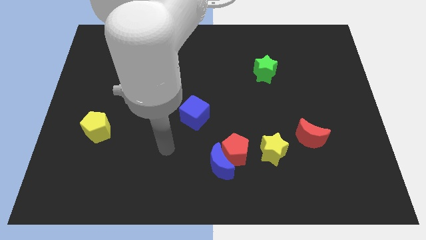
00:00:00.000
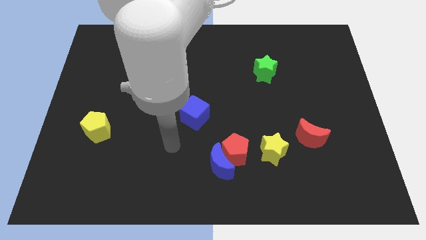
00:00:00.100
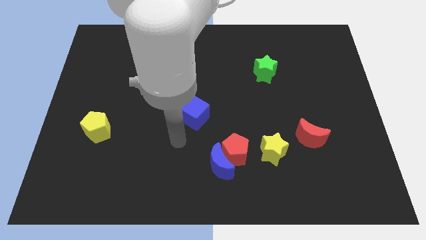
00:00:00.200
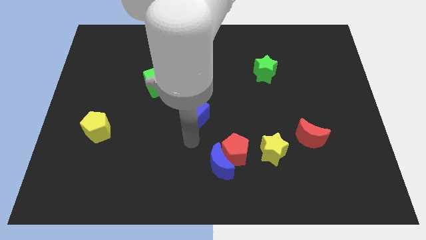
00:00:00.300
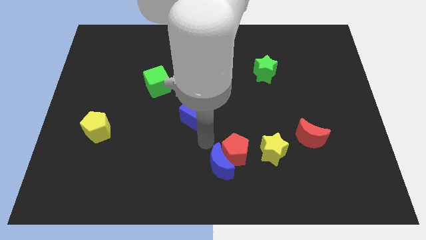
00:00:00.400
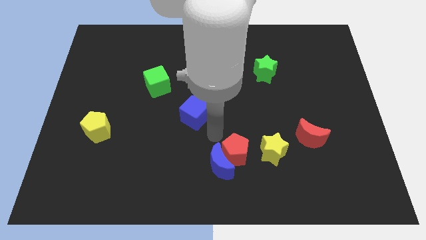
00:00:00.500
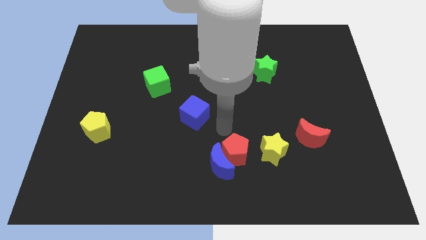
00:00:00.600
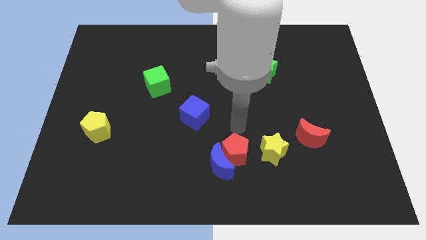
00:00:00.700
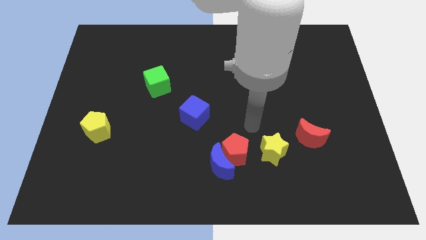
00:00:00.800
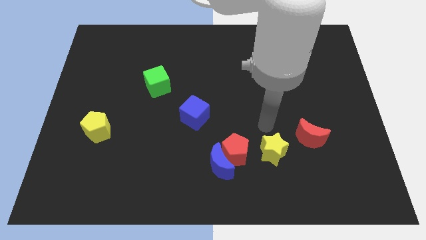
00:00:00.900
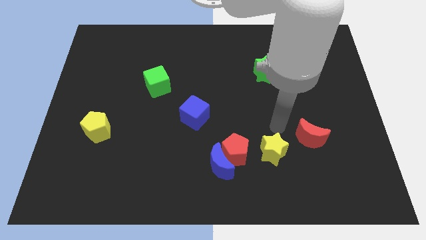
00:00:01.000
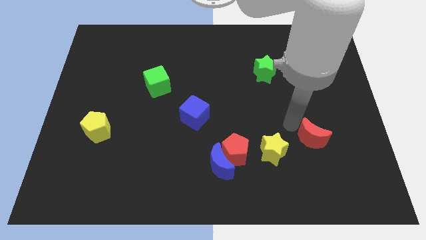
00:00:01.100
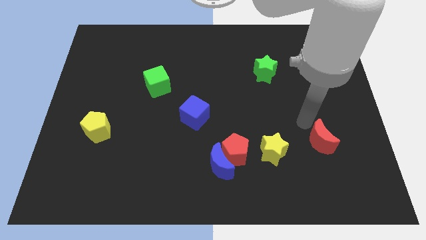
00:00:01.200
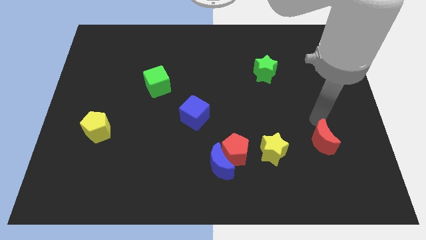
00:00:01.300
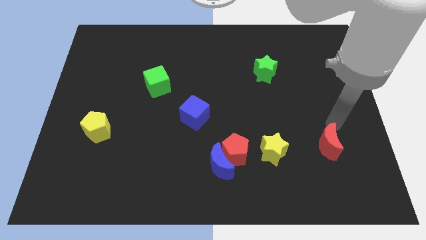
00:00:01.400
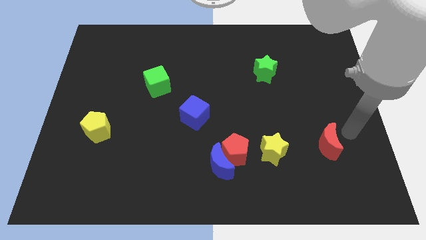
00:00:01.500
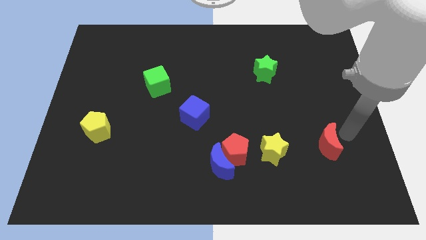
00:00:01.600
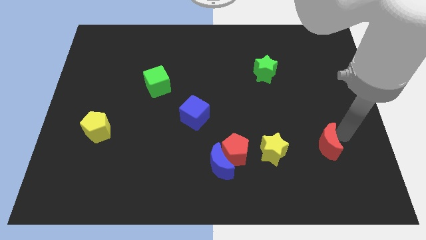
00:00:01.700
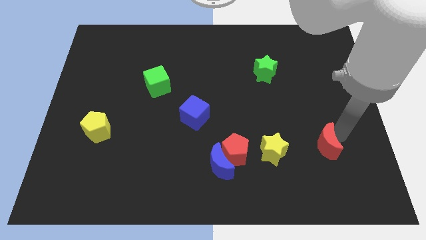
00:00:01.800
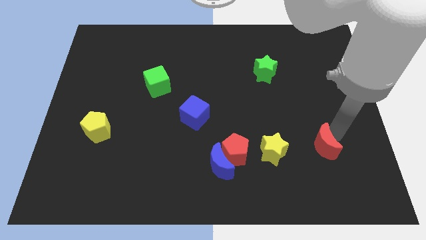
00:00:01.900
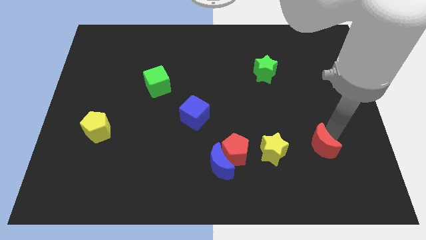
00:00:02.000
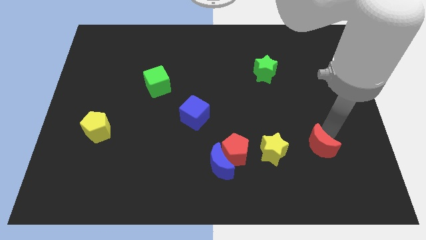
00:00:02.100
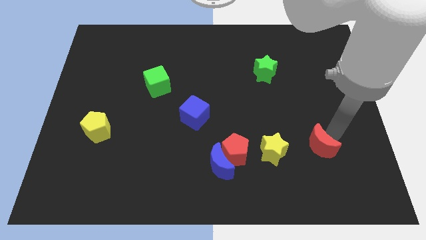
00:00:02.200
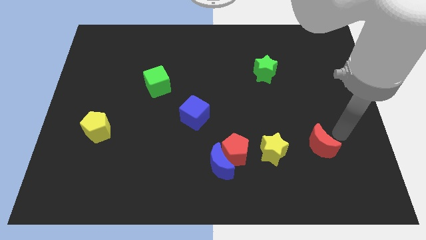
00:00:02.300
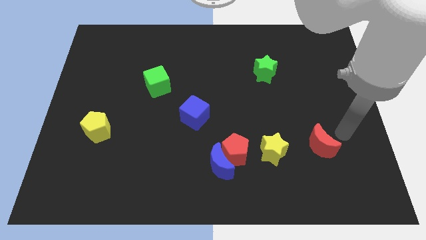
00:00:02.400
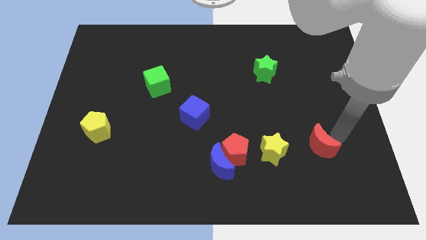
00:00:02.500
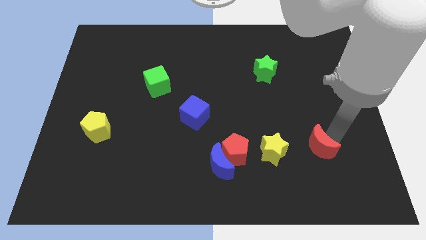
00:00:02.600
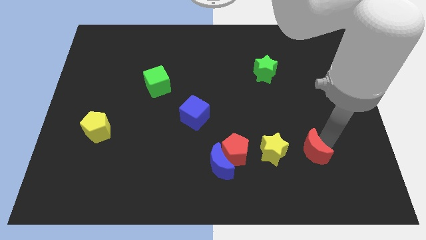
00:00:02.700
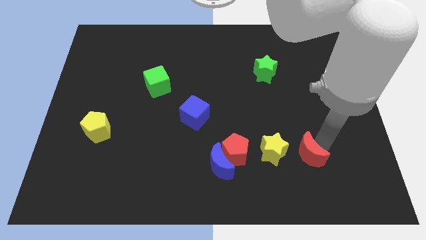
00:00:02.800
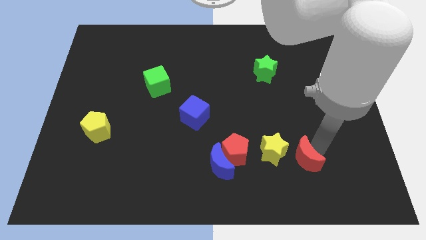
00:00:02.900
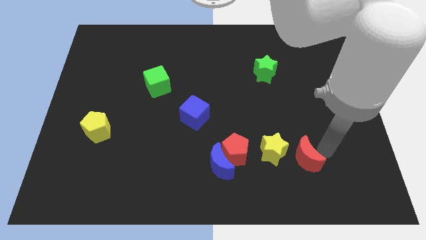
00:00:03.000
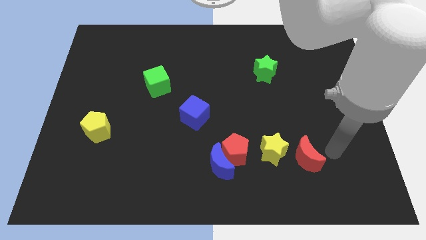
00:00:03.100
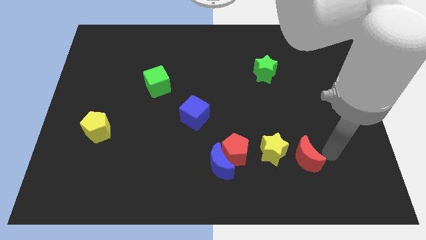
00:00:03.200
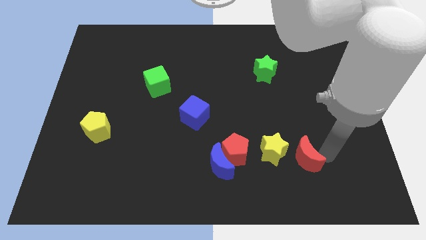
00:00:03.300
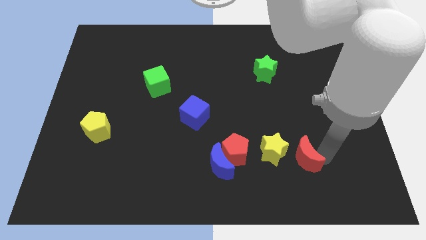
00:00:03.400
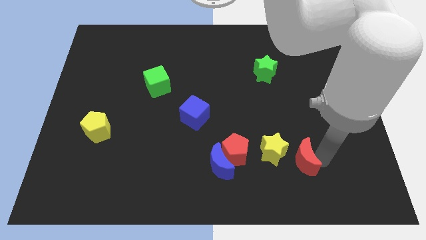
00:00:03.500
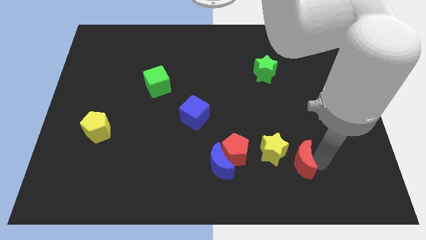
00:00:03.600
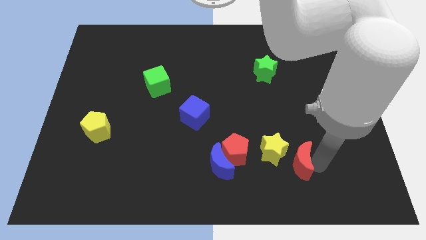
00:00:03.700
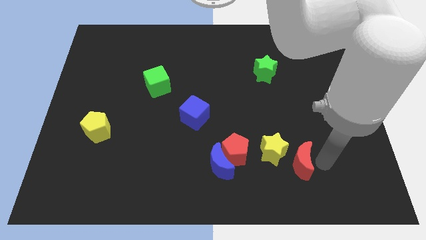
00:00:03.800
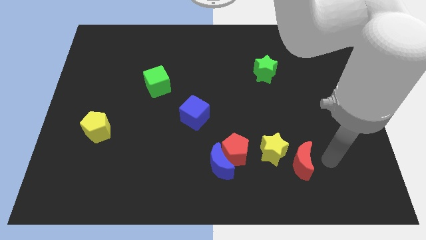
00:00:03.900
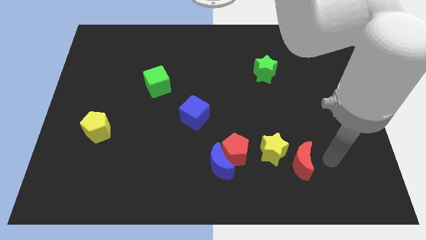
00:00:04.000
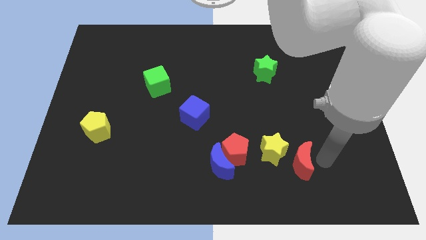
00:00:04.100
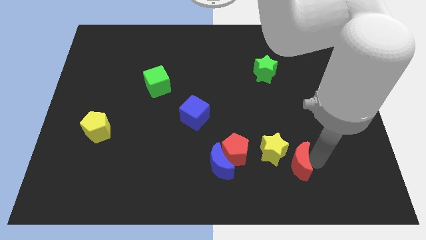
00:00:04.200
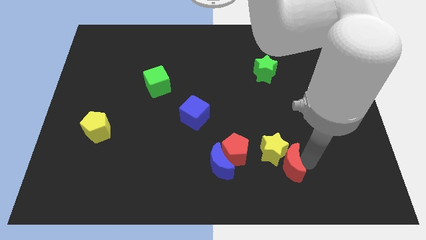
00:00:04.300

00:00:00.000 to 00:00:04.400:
push the red moon to the right side of the blue moon

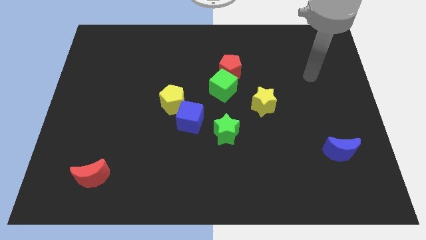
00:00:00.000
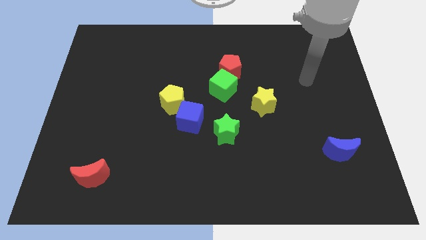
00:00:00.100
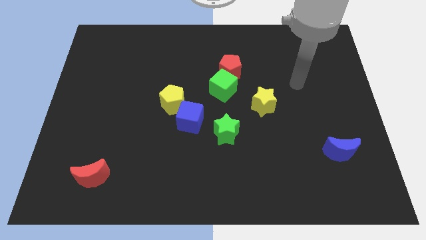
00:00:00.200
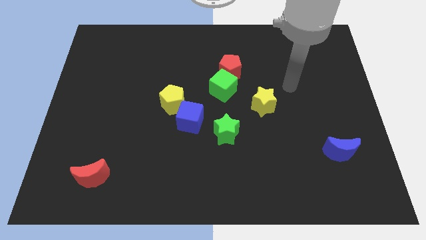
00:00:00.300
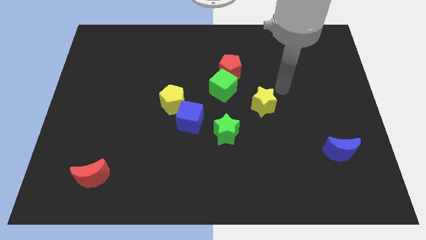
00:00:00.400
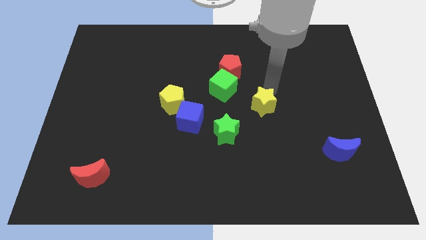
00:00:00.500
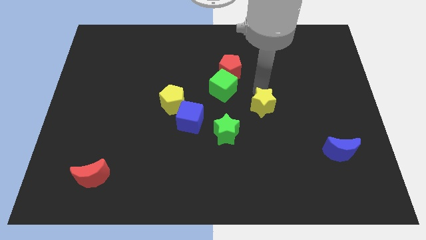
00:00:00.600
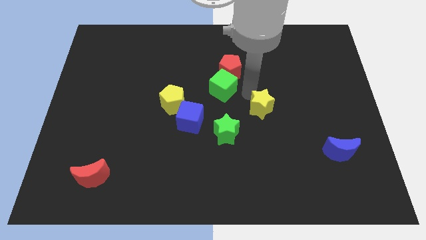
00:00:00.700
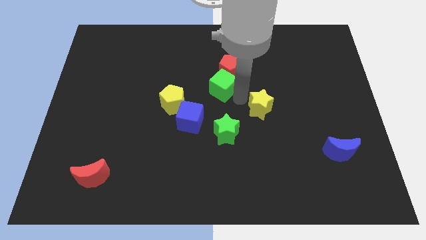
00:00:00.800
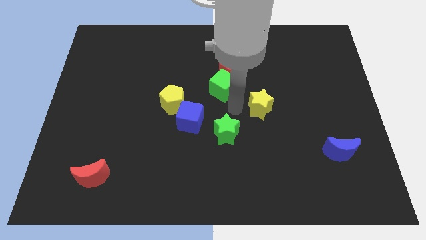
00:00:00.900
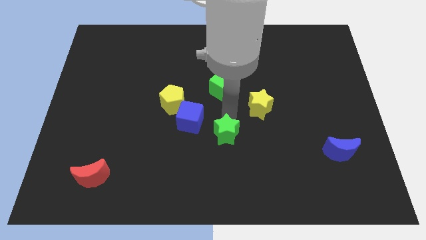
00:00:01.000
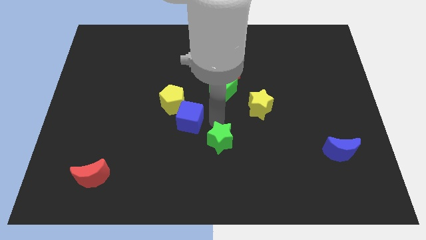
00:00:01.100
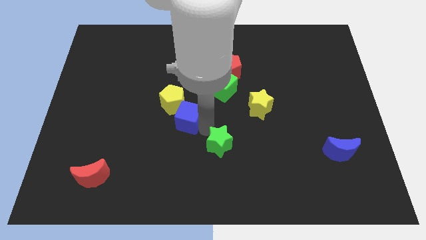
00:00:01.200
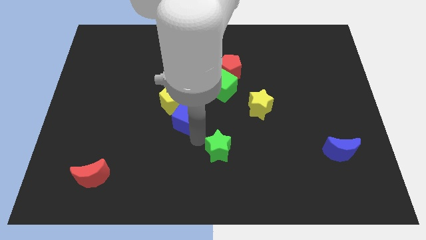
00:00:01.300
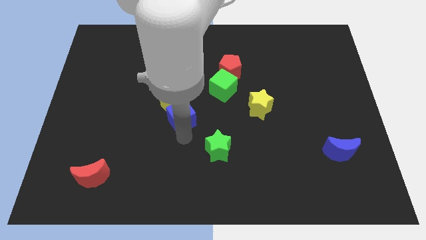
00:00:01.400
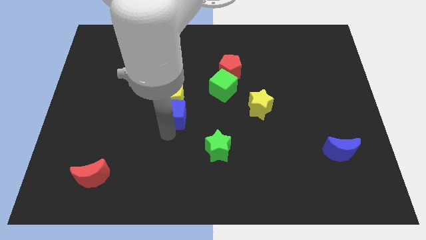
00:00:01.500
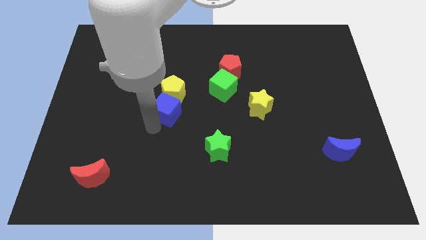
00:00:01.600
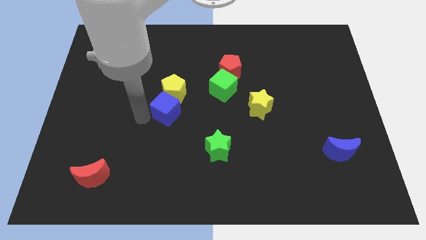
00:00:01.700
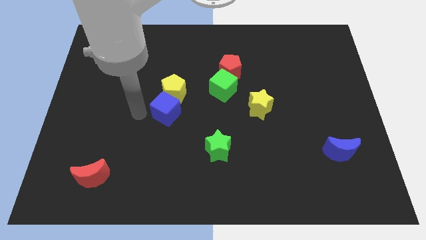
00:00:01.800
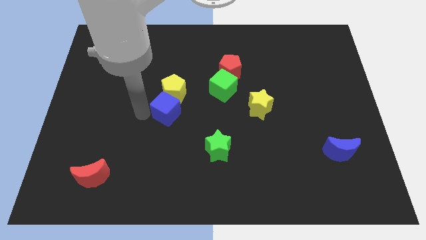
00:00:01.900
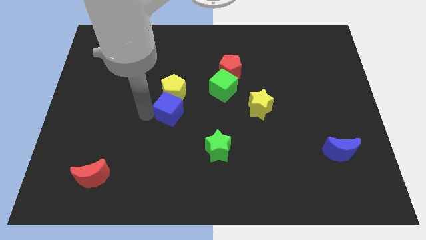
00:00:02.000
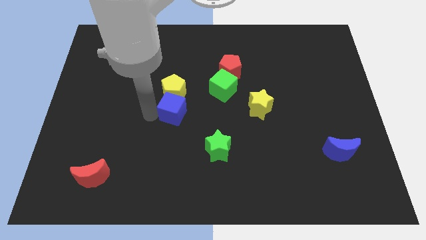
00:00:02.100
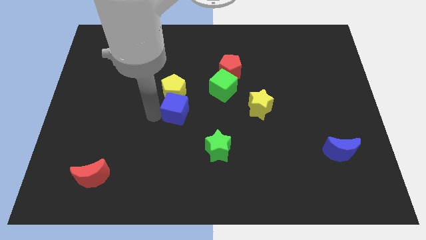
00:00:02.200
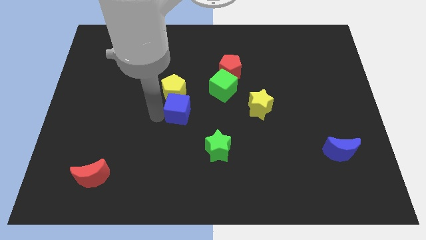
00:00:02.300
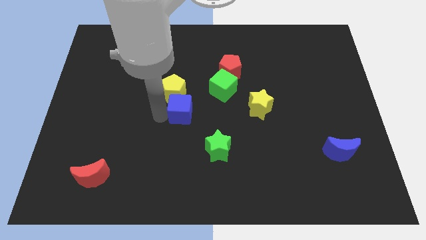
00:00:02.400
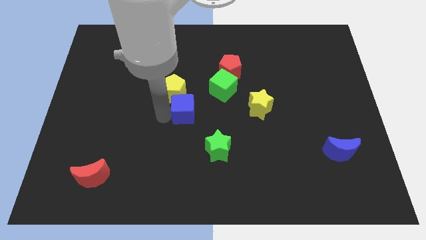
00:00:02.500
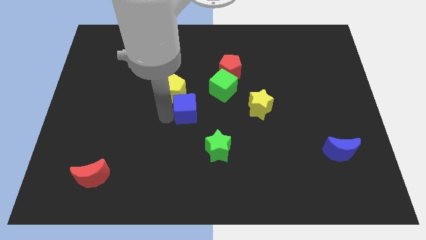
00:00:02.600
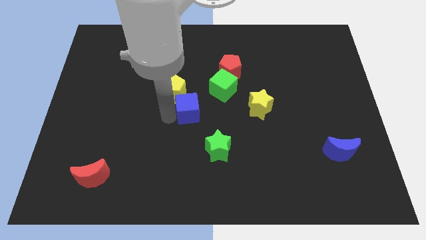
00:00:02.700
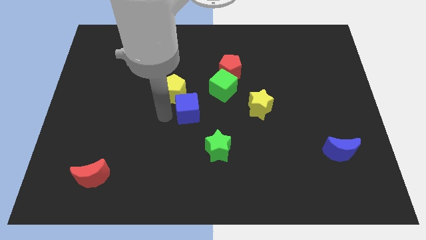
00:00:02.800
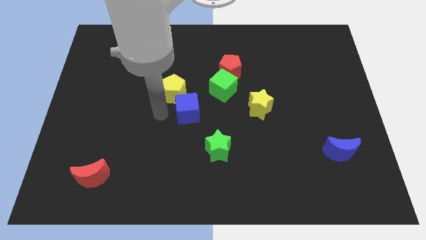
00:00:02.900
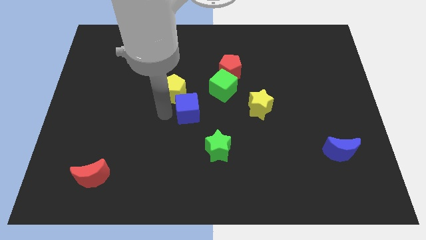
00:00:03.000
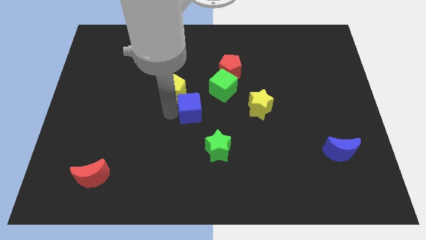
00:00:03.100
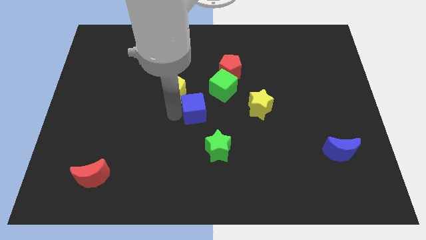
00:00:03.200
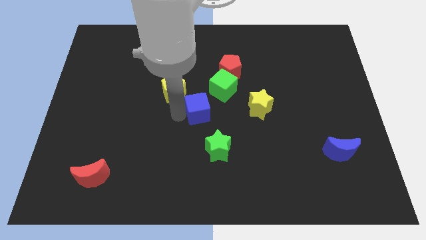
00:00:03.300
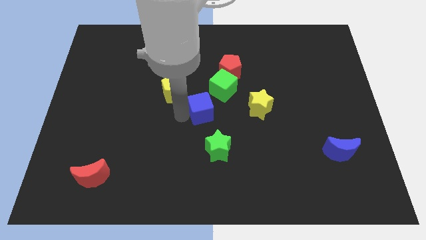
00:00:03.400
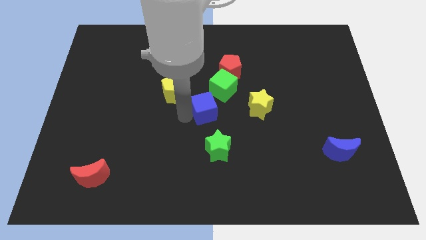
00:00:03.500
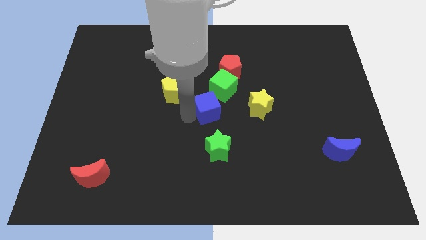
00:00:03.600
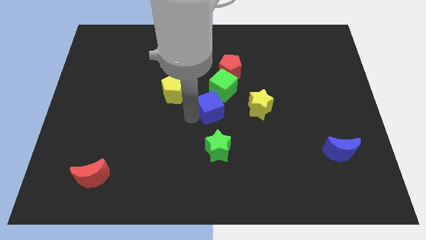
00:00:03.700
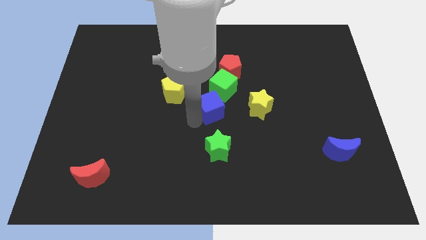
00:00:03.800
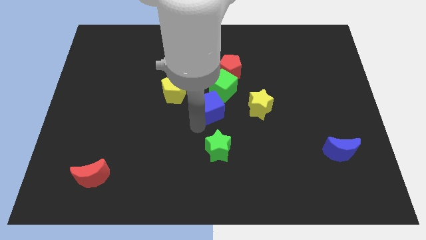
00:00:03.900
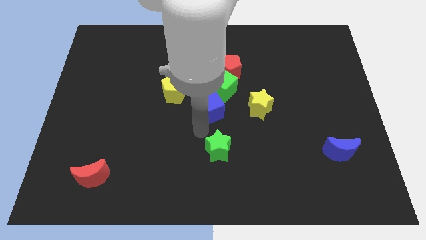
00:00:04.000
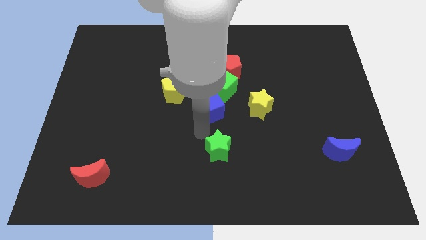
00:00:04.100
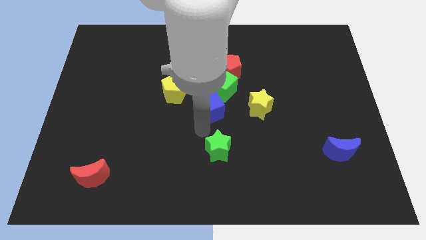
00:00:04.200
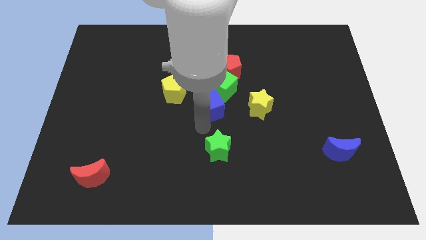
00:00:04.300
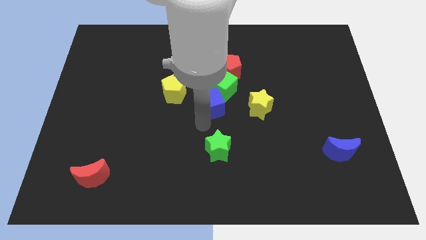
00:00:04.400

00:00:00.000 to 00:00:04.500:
push the blue cube just right of the yellow pentagon
